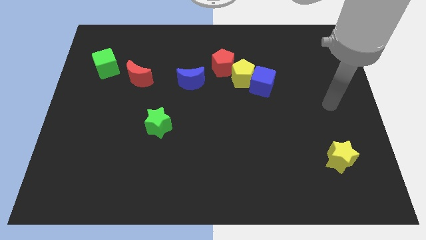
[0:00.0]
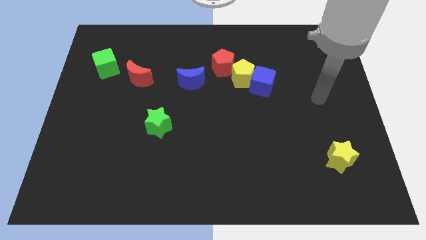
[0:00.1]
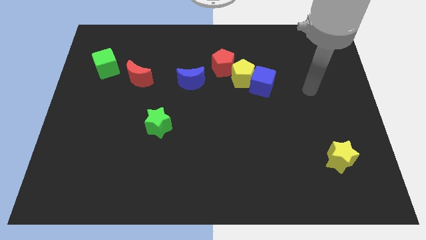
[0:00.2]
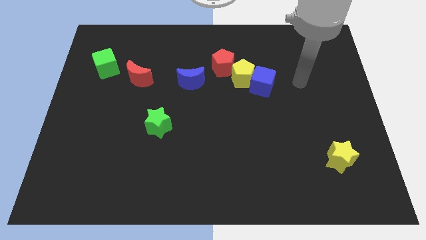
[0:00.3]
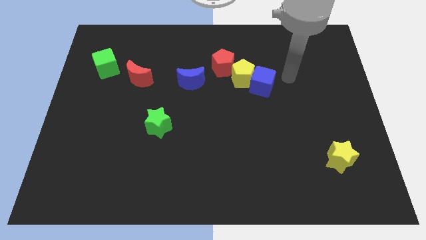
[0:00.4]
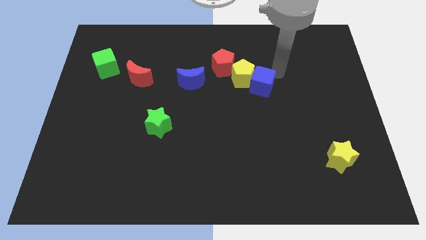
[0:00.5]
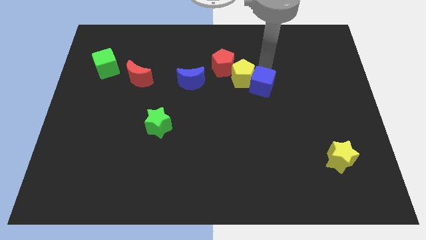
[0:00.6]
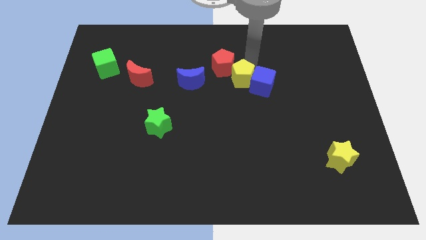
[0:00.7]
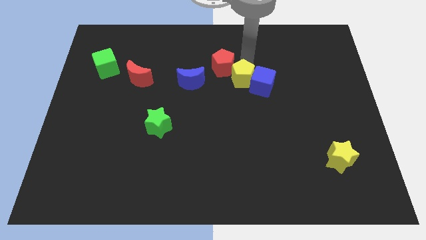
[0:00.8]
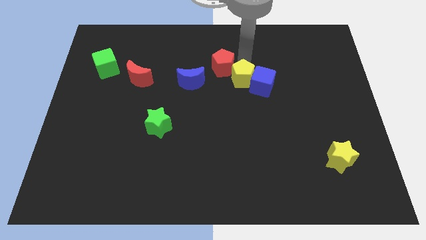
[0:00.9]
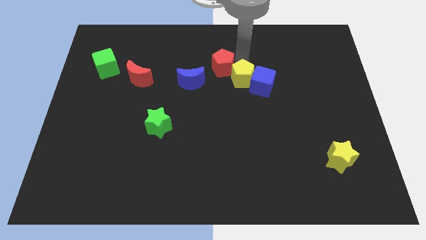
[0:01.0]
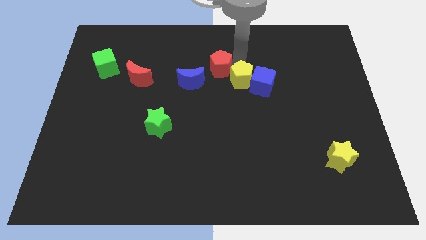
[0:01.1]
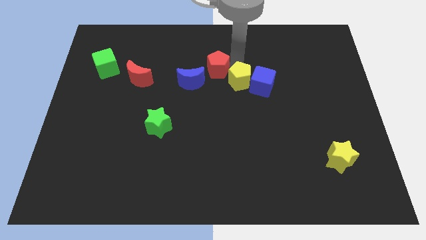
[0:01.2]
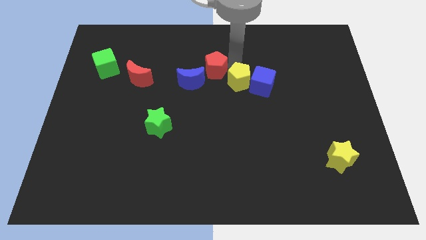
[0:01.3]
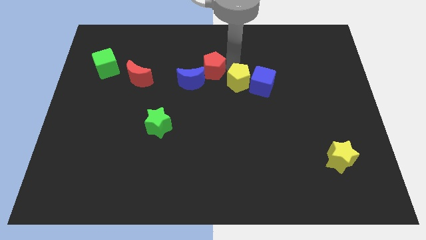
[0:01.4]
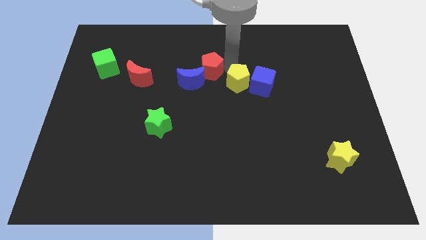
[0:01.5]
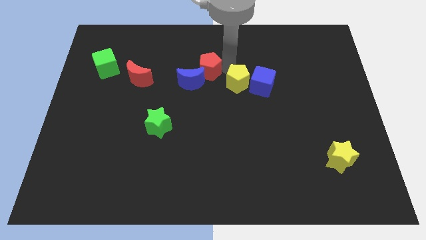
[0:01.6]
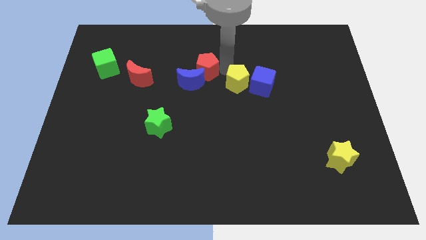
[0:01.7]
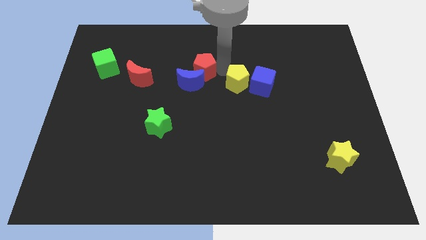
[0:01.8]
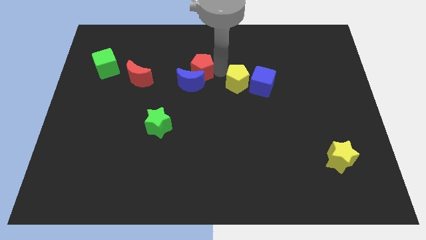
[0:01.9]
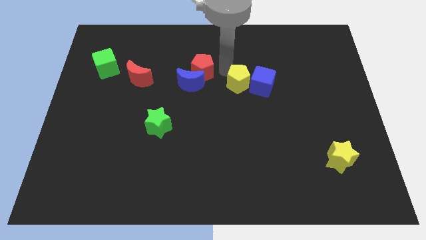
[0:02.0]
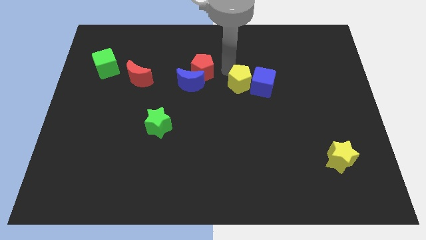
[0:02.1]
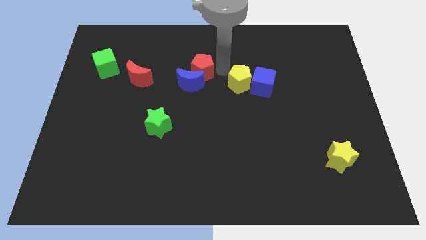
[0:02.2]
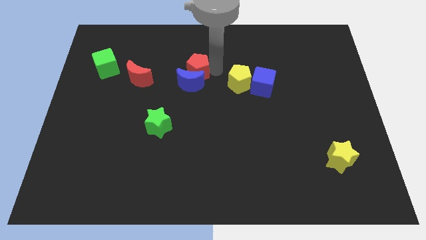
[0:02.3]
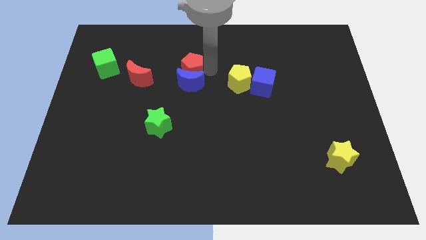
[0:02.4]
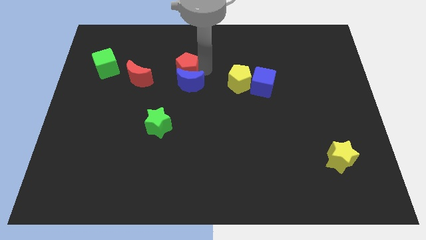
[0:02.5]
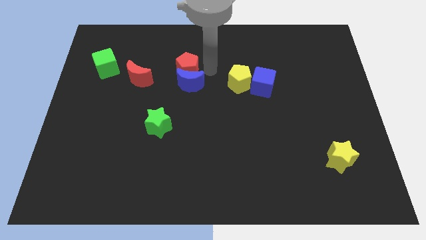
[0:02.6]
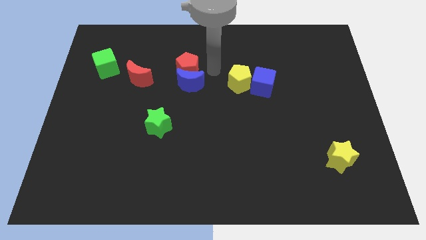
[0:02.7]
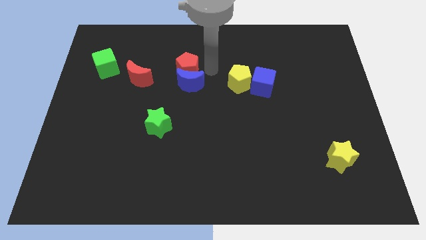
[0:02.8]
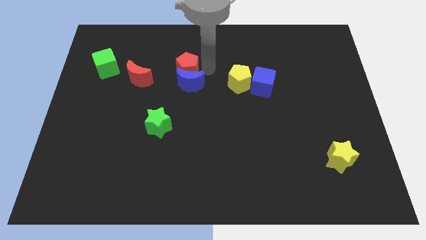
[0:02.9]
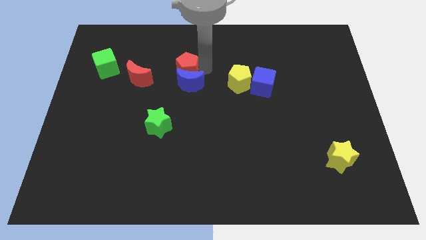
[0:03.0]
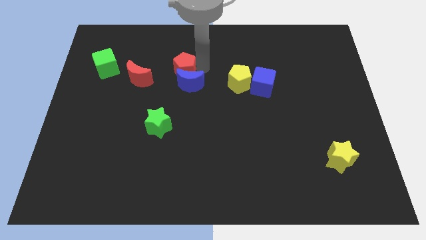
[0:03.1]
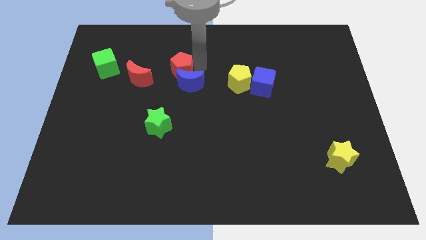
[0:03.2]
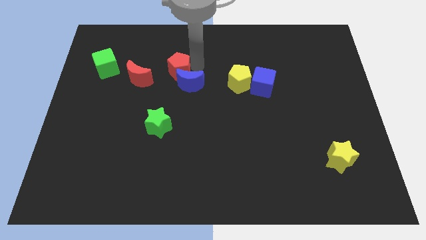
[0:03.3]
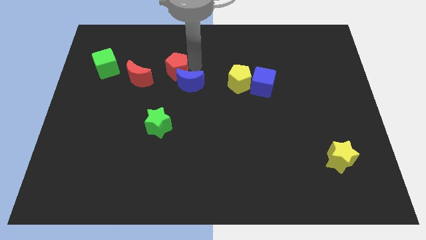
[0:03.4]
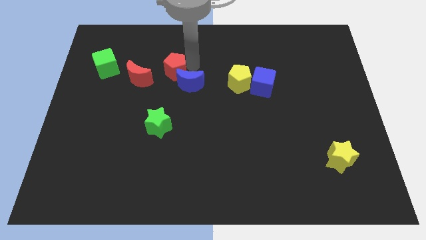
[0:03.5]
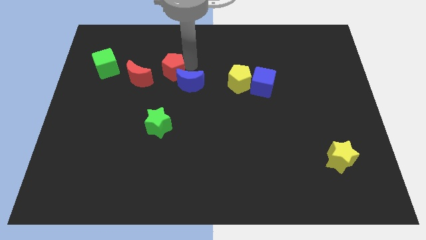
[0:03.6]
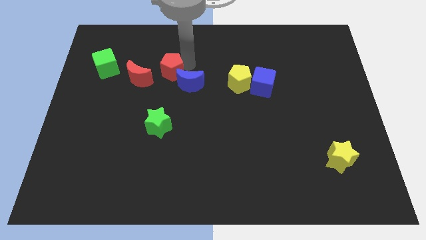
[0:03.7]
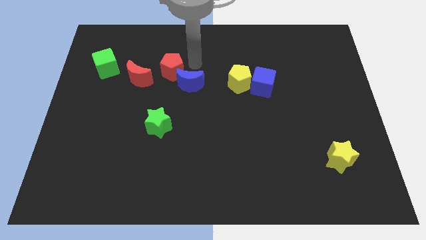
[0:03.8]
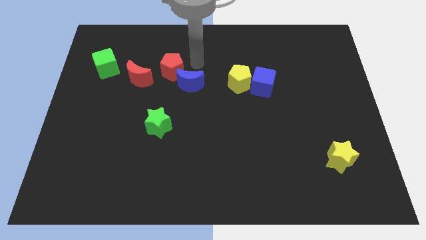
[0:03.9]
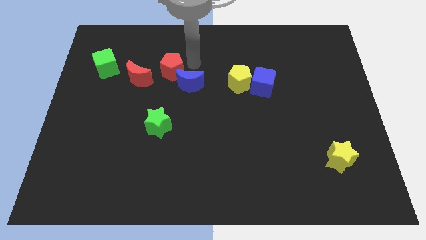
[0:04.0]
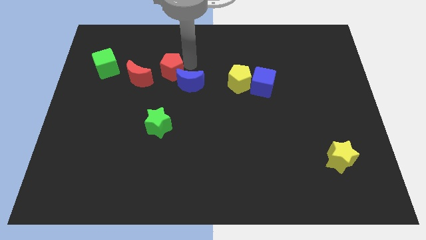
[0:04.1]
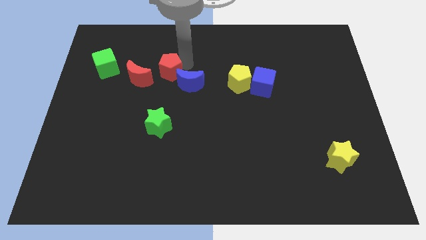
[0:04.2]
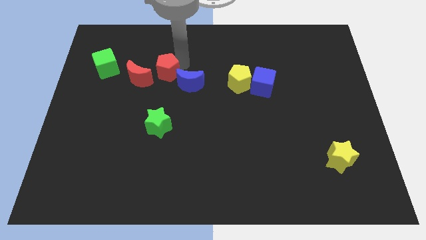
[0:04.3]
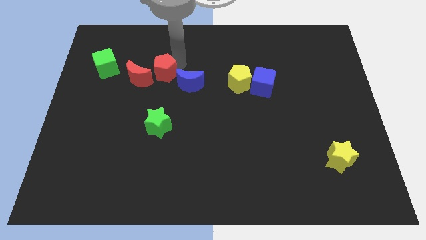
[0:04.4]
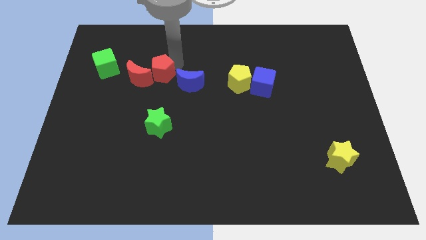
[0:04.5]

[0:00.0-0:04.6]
put the red pentagon next to the red moon

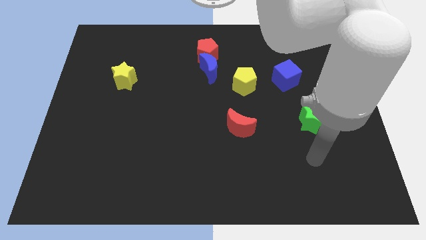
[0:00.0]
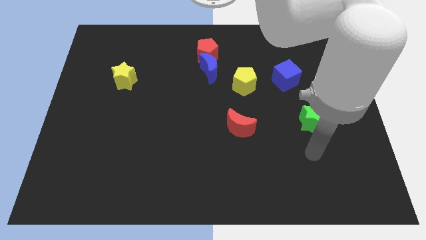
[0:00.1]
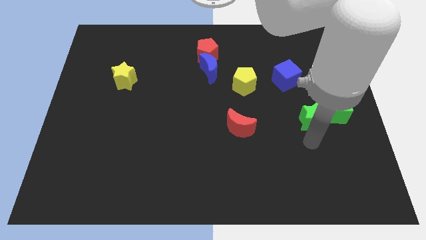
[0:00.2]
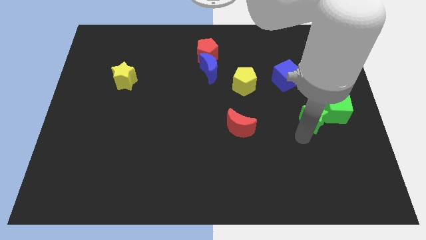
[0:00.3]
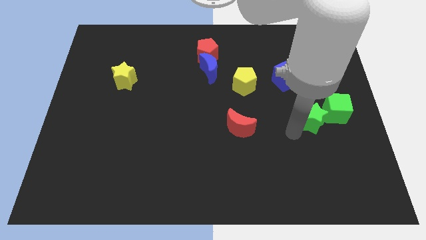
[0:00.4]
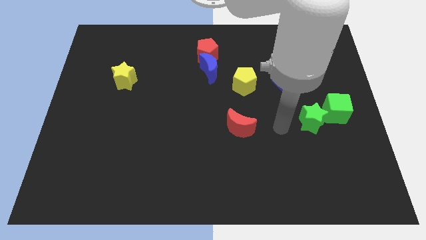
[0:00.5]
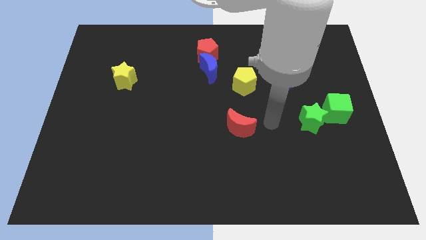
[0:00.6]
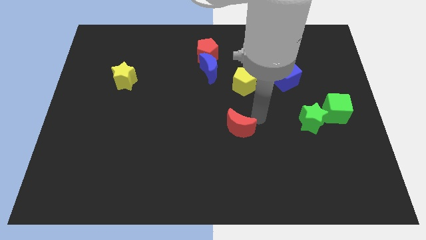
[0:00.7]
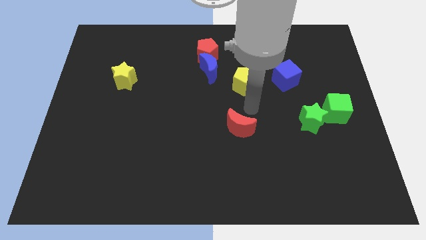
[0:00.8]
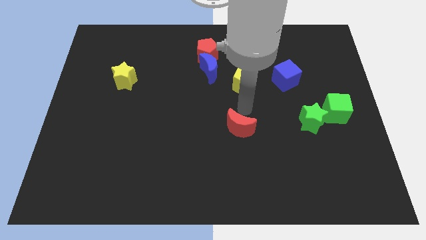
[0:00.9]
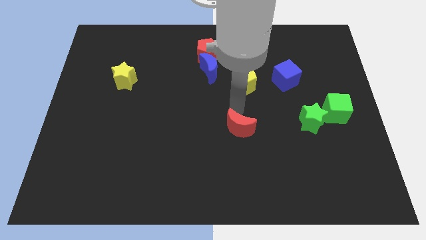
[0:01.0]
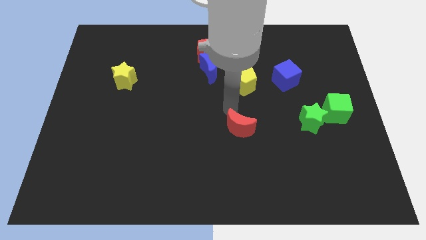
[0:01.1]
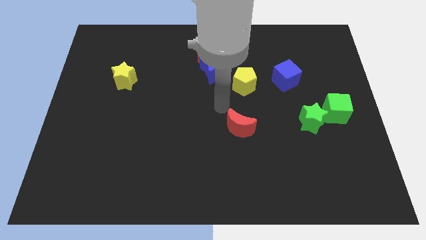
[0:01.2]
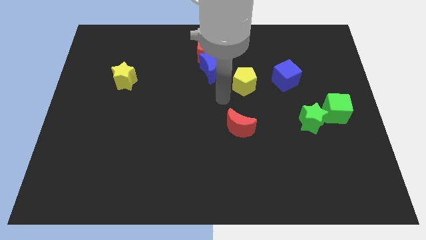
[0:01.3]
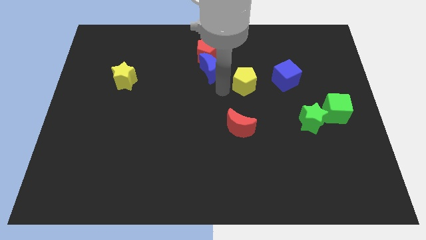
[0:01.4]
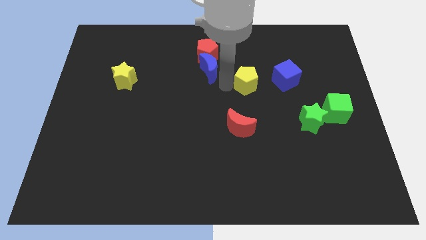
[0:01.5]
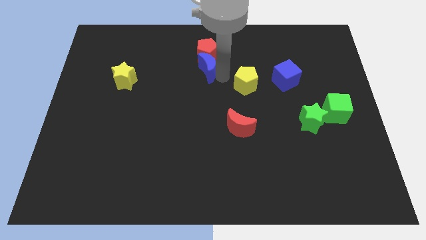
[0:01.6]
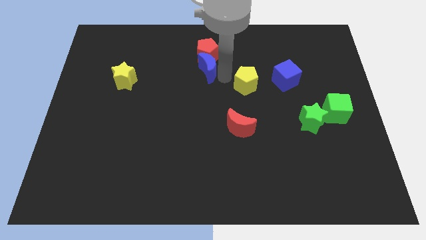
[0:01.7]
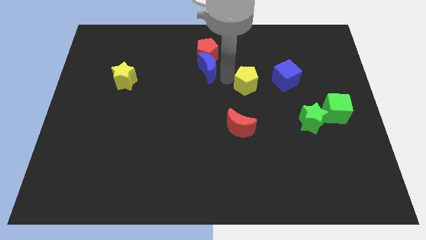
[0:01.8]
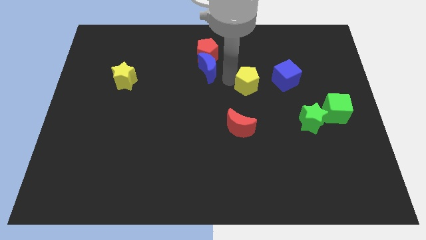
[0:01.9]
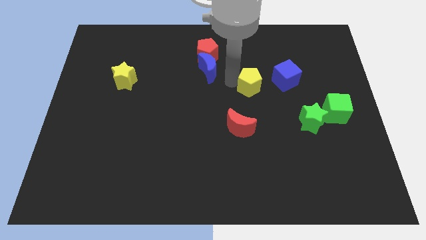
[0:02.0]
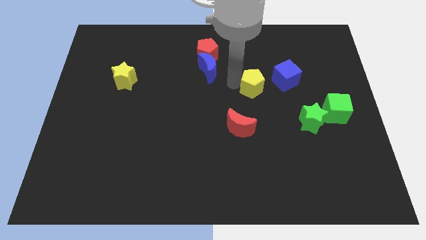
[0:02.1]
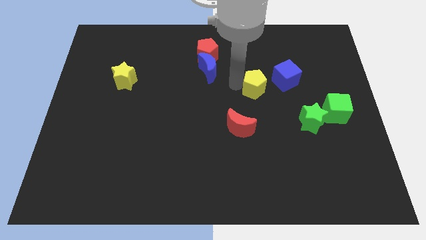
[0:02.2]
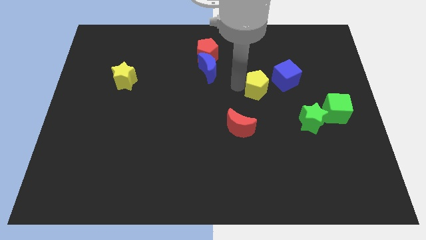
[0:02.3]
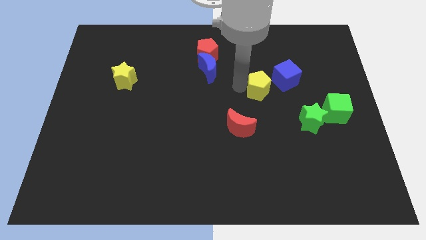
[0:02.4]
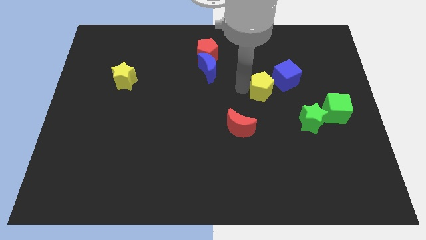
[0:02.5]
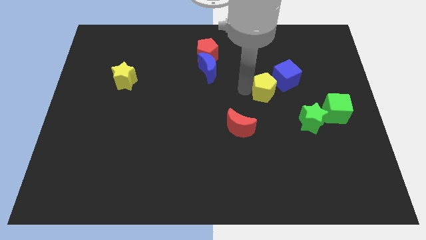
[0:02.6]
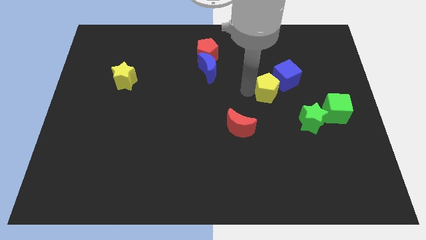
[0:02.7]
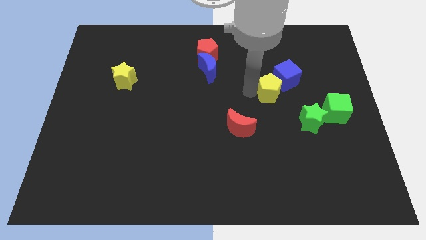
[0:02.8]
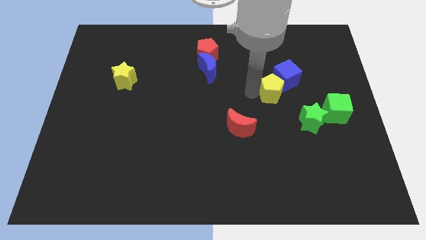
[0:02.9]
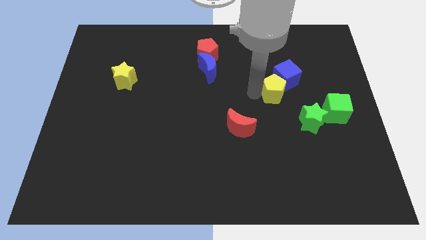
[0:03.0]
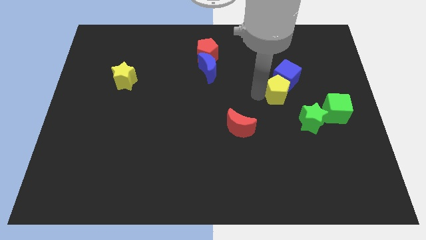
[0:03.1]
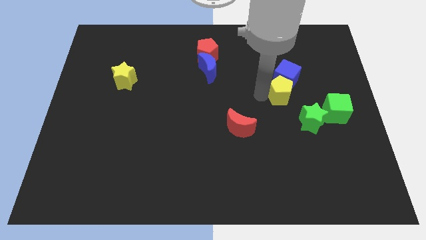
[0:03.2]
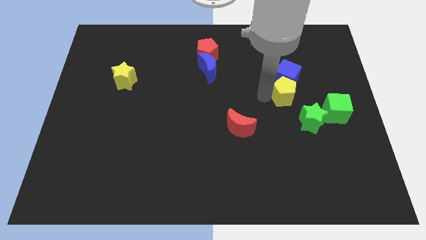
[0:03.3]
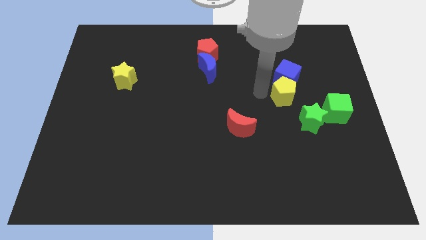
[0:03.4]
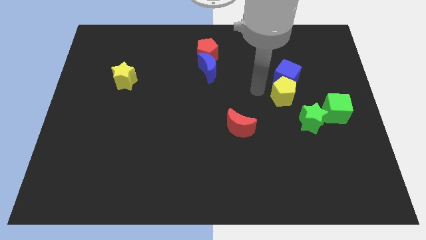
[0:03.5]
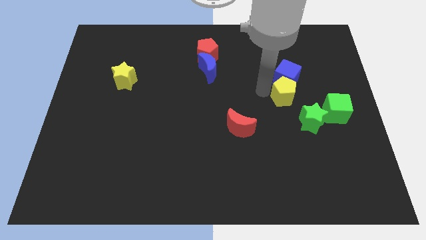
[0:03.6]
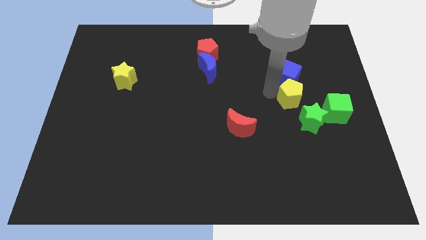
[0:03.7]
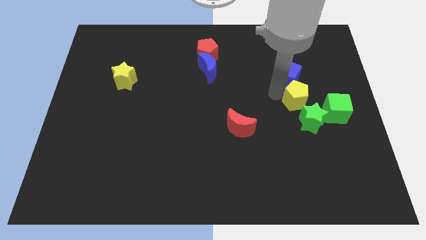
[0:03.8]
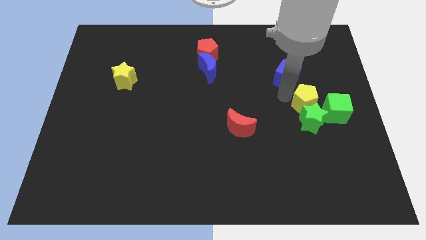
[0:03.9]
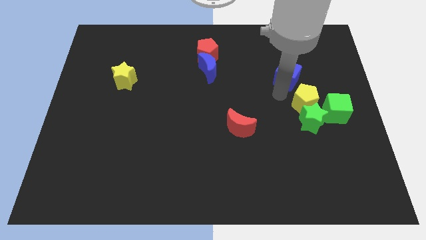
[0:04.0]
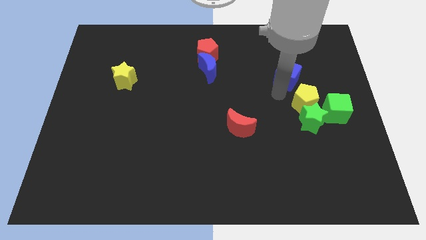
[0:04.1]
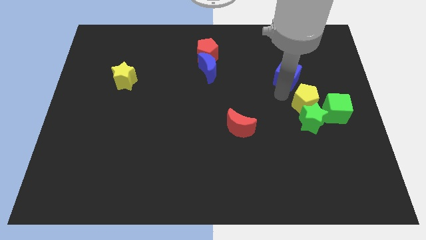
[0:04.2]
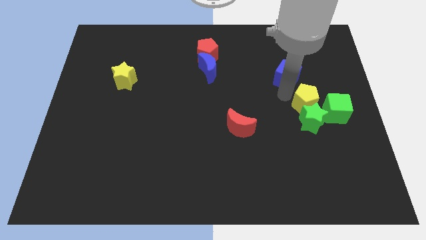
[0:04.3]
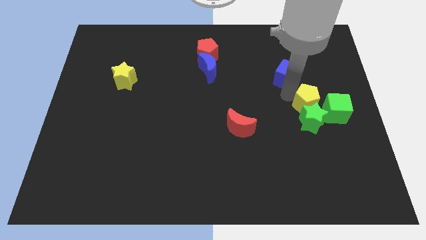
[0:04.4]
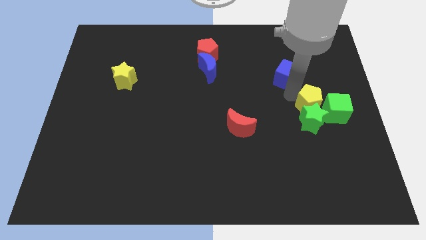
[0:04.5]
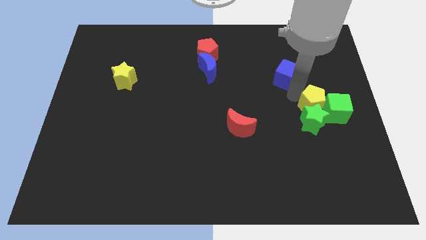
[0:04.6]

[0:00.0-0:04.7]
slide the yellow pentagon to the green cube
